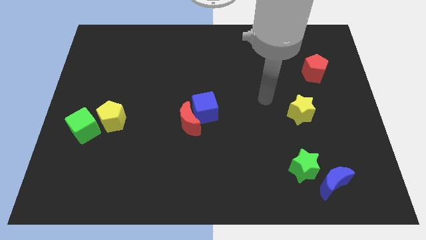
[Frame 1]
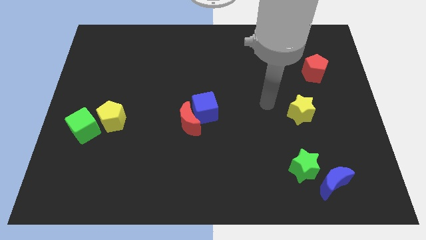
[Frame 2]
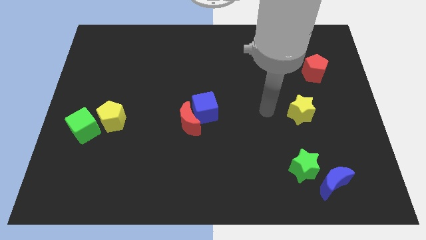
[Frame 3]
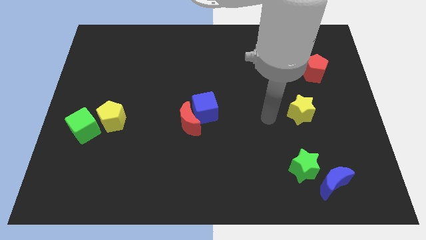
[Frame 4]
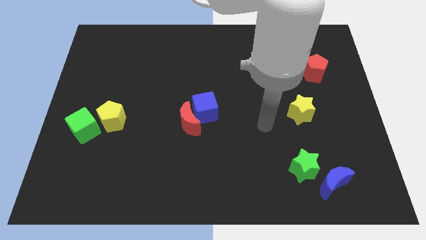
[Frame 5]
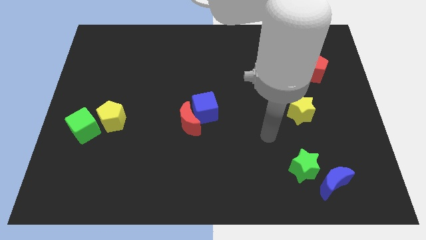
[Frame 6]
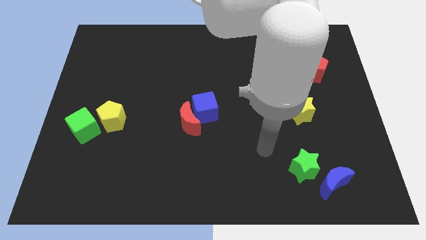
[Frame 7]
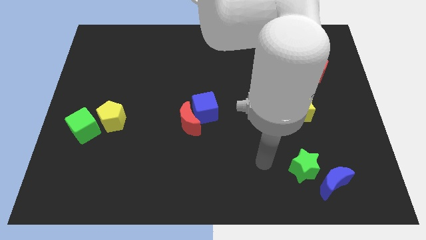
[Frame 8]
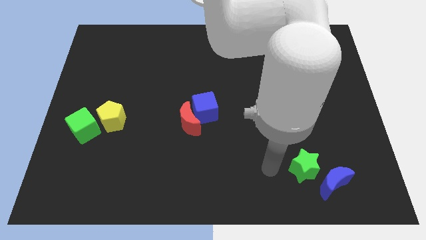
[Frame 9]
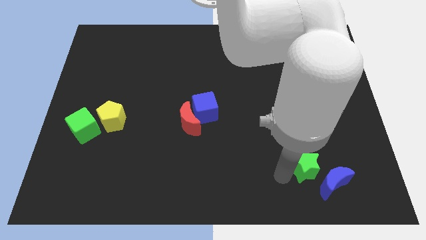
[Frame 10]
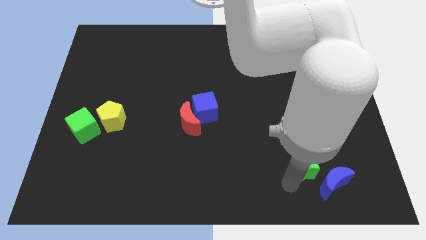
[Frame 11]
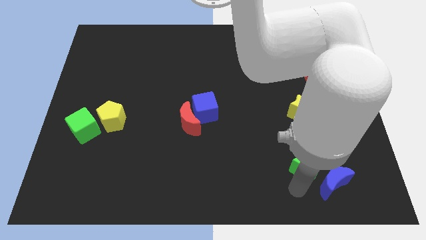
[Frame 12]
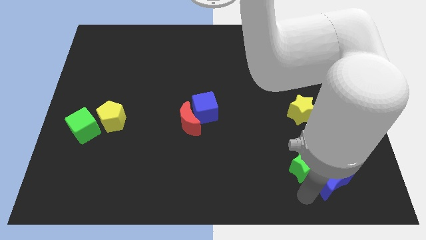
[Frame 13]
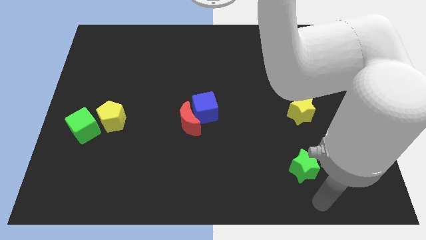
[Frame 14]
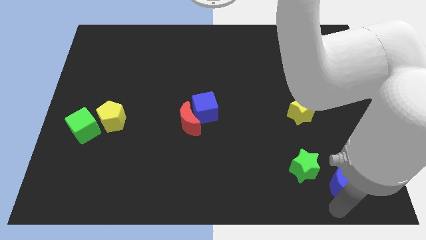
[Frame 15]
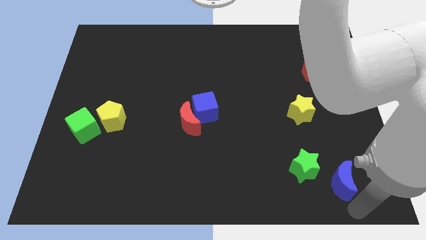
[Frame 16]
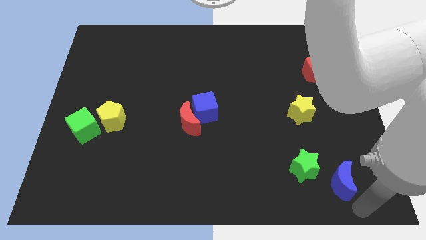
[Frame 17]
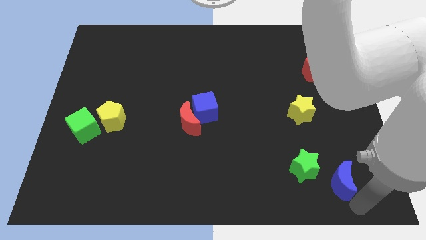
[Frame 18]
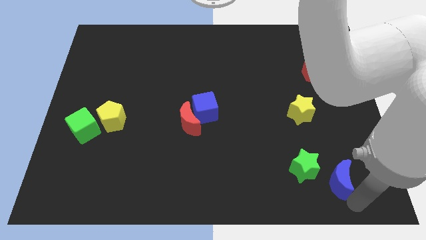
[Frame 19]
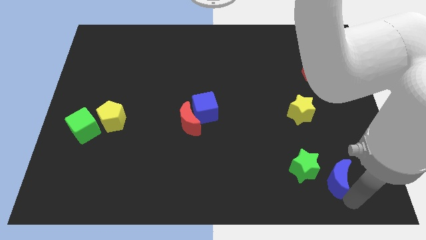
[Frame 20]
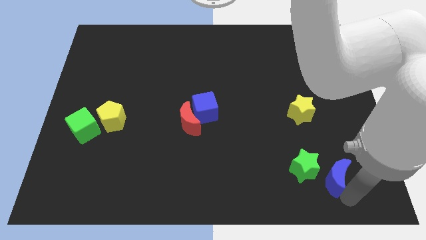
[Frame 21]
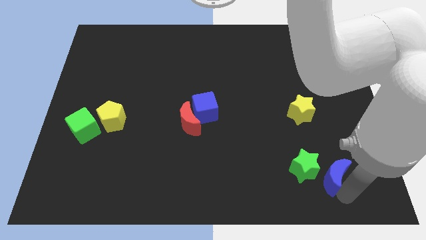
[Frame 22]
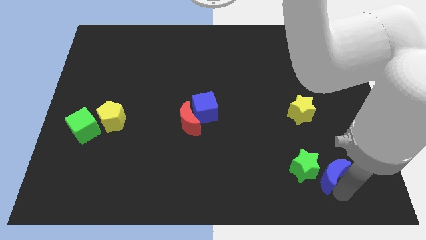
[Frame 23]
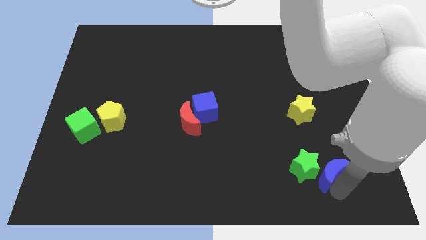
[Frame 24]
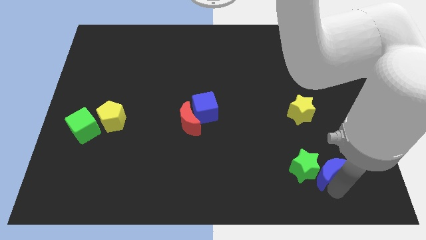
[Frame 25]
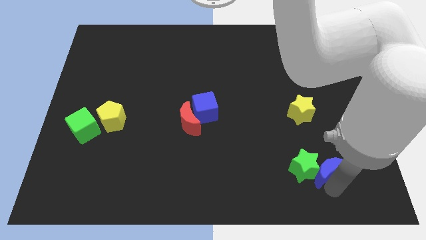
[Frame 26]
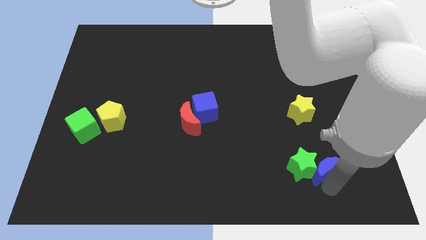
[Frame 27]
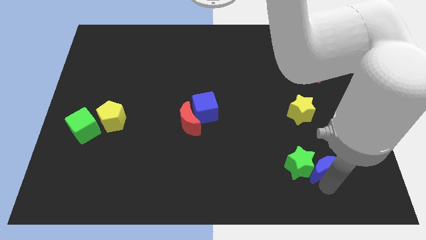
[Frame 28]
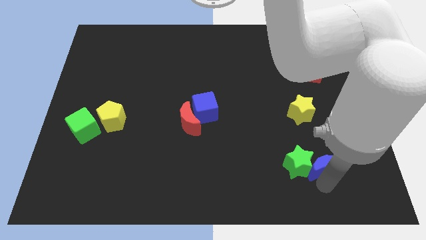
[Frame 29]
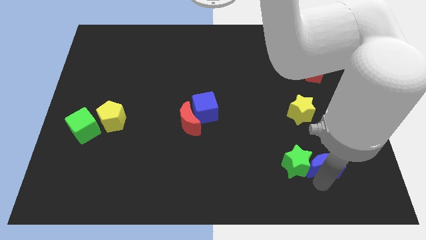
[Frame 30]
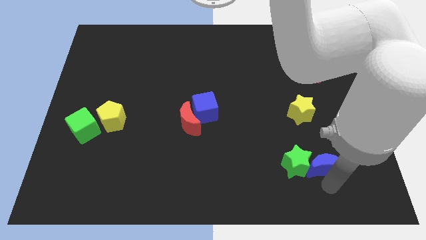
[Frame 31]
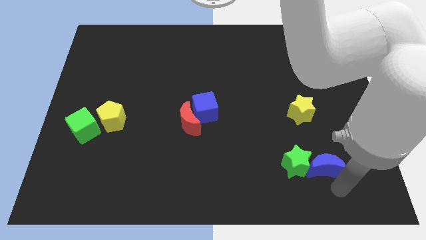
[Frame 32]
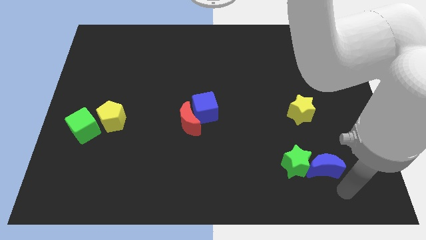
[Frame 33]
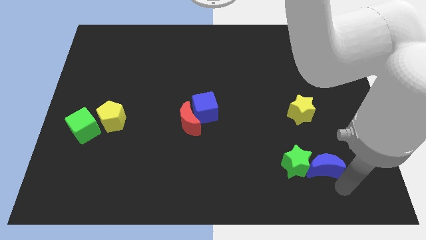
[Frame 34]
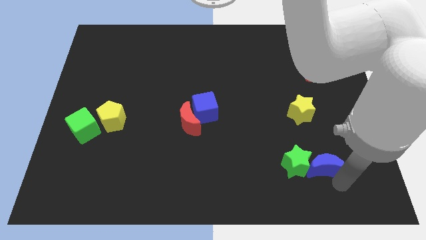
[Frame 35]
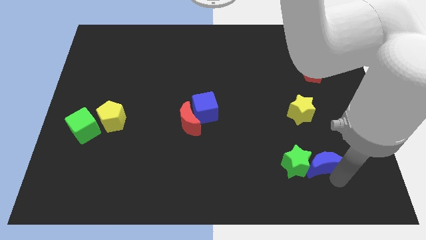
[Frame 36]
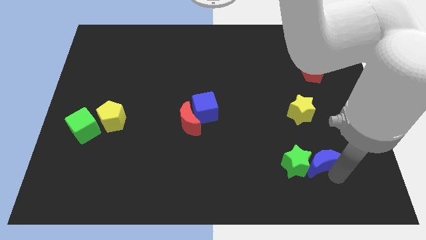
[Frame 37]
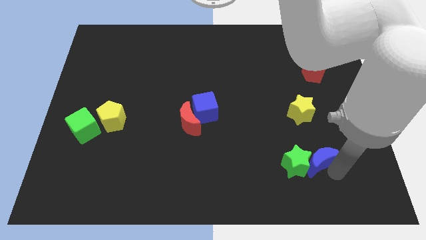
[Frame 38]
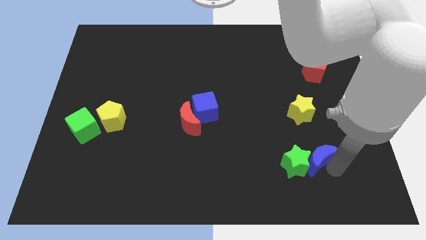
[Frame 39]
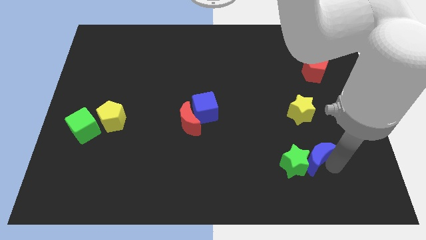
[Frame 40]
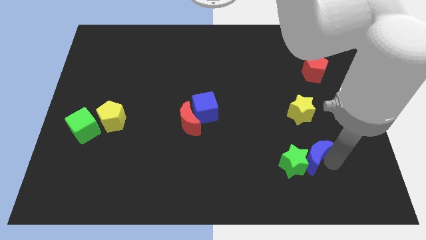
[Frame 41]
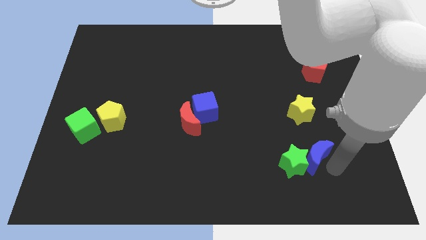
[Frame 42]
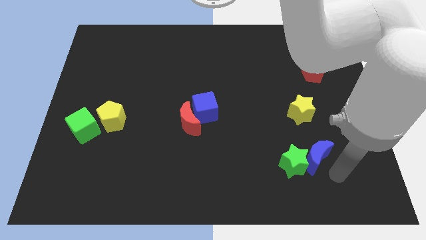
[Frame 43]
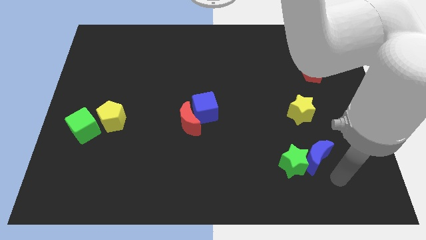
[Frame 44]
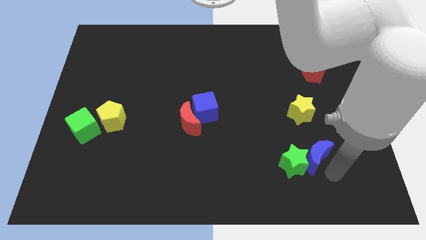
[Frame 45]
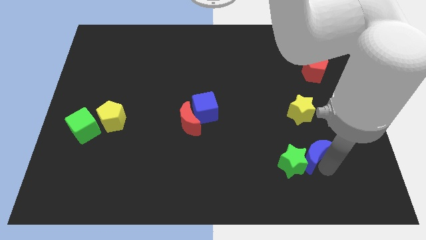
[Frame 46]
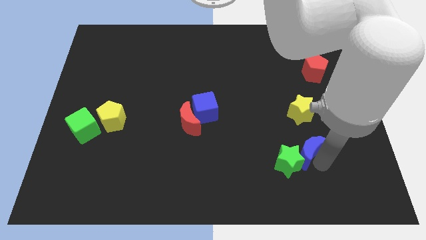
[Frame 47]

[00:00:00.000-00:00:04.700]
slightly slide the blue moon upwards and to the left

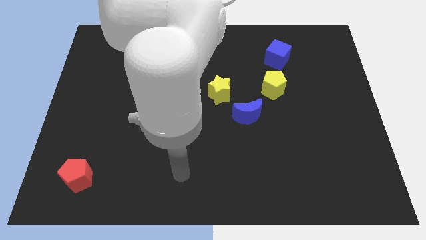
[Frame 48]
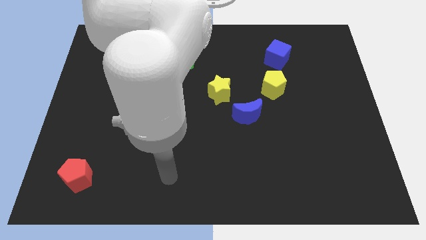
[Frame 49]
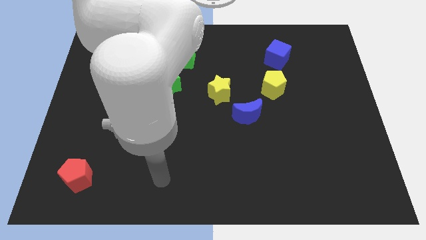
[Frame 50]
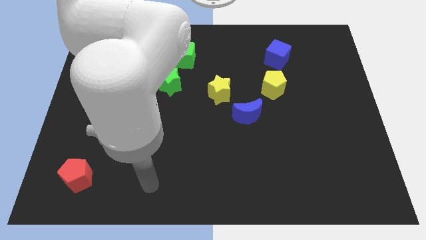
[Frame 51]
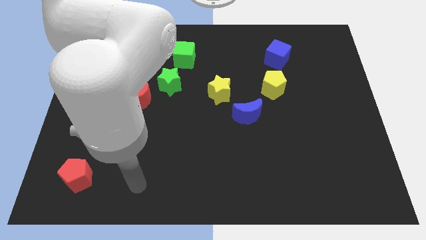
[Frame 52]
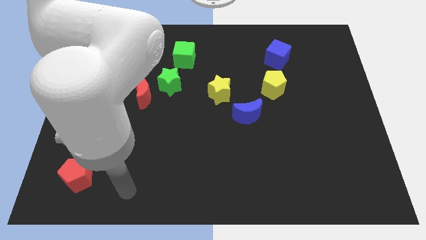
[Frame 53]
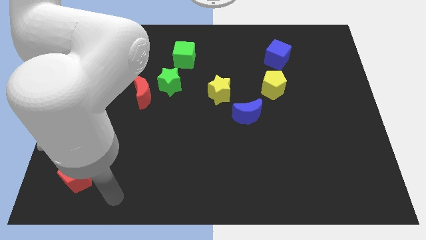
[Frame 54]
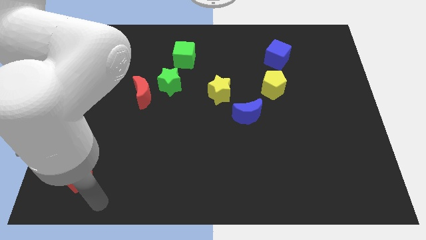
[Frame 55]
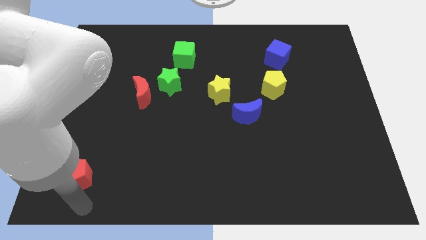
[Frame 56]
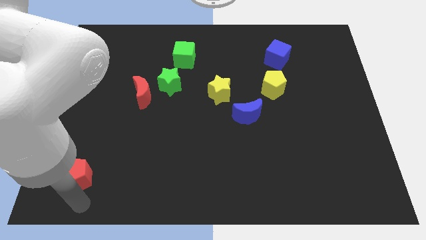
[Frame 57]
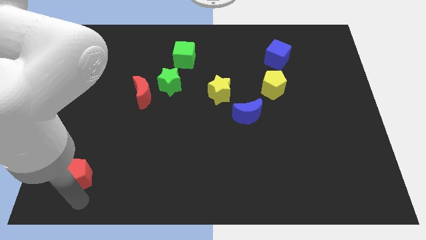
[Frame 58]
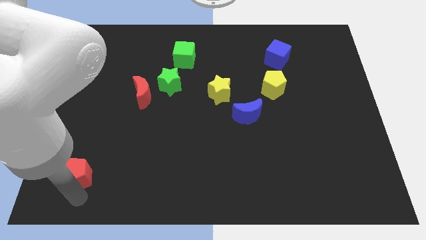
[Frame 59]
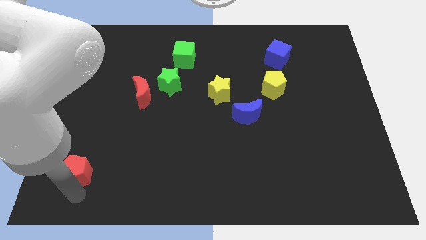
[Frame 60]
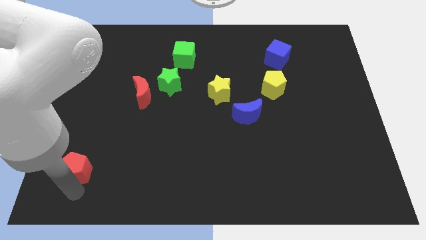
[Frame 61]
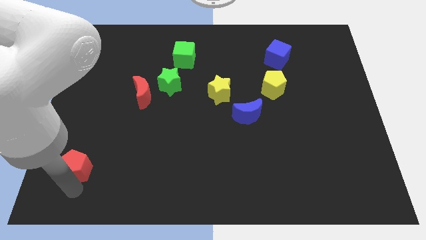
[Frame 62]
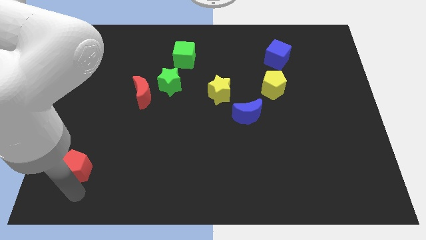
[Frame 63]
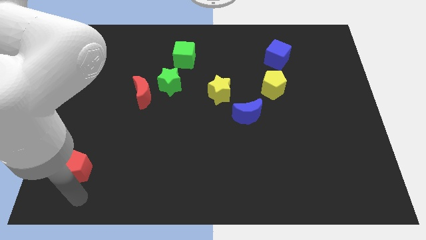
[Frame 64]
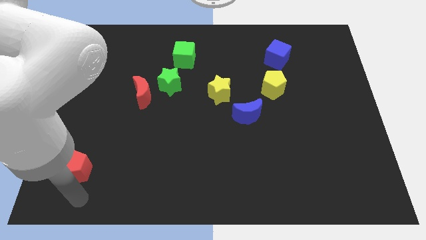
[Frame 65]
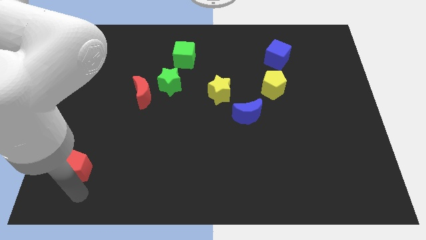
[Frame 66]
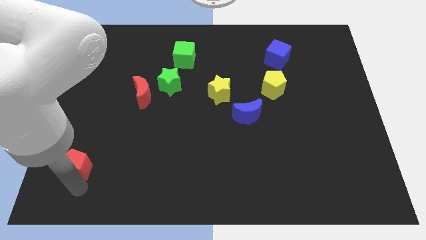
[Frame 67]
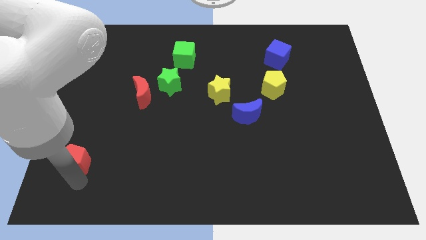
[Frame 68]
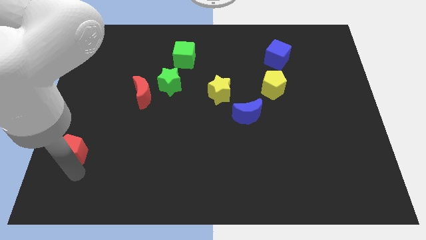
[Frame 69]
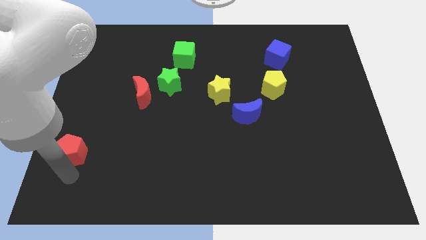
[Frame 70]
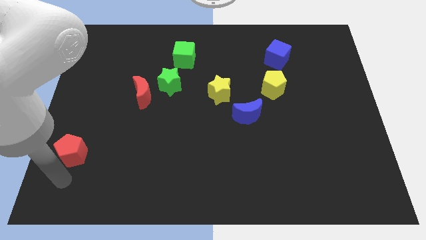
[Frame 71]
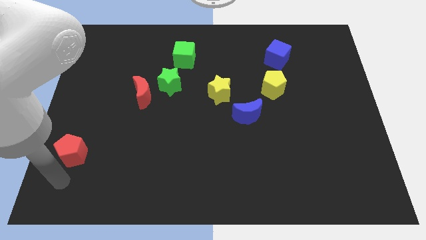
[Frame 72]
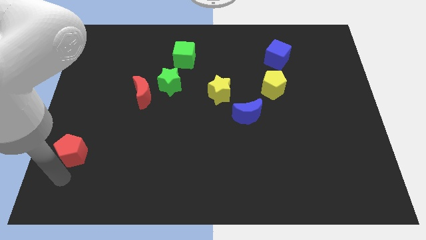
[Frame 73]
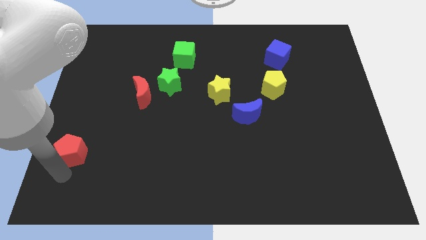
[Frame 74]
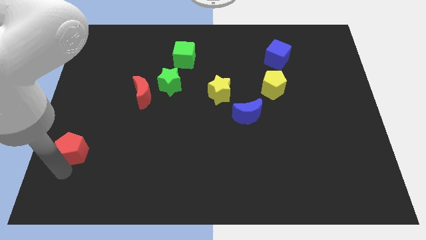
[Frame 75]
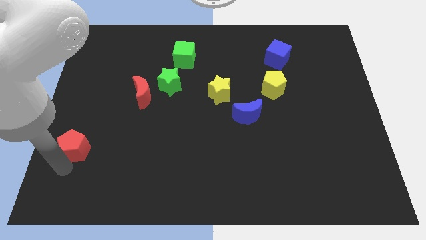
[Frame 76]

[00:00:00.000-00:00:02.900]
slightly slide the red pentagon up

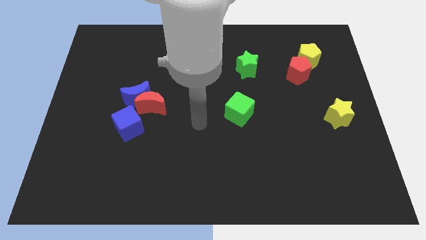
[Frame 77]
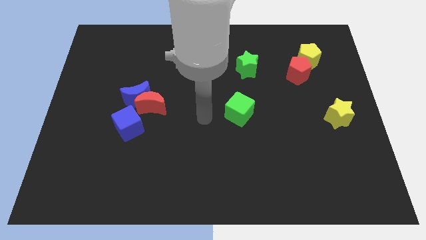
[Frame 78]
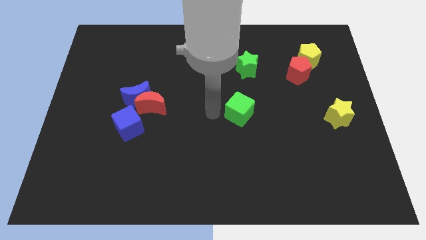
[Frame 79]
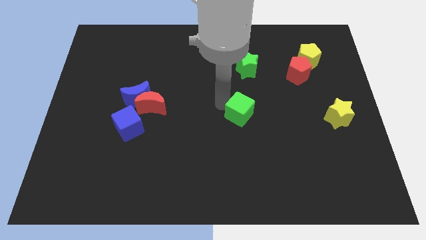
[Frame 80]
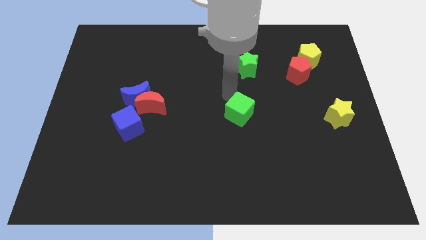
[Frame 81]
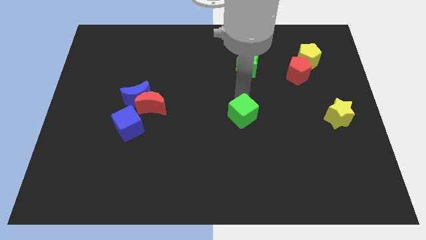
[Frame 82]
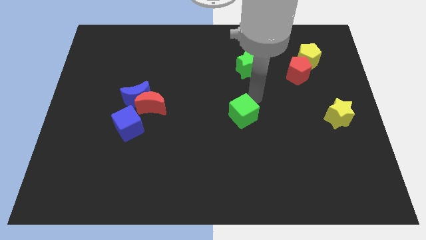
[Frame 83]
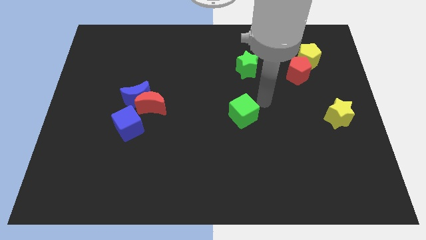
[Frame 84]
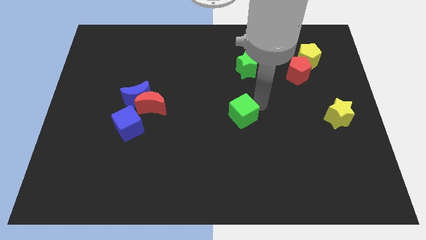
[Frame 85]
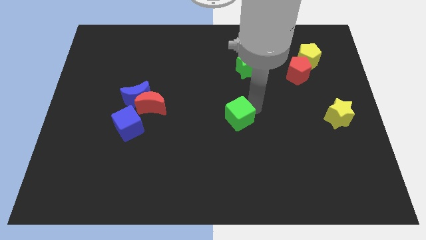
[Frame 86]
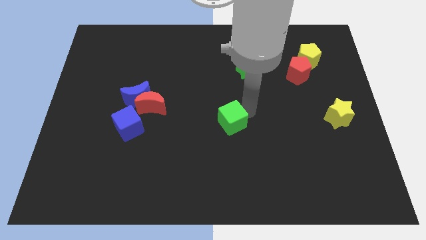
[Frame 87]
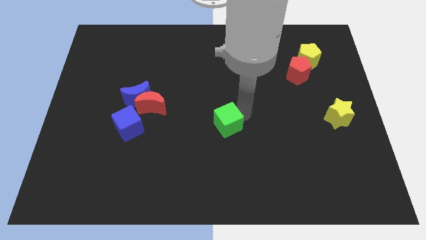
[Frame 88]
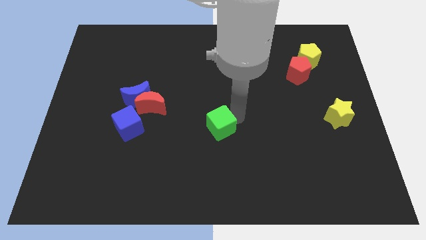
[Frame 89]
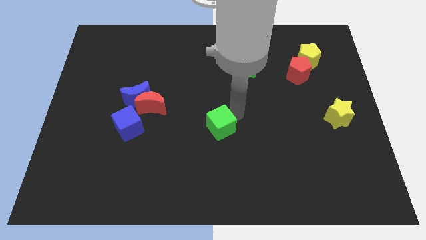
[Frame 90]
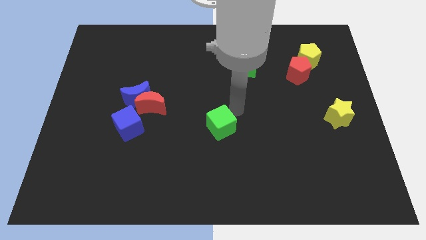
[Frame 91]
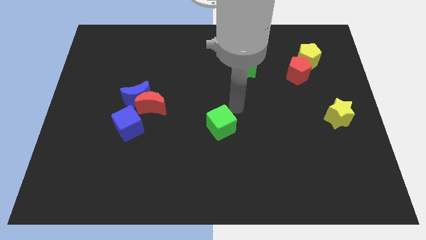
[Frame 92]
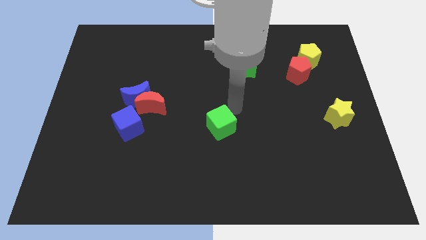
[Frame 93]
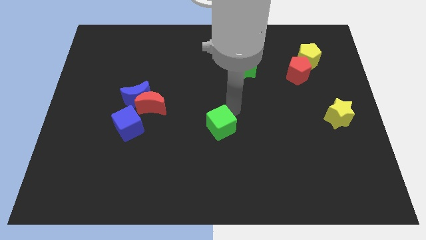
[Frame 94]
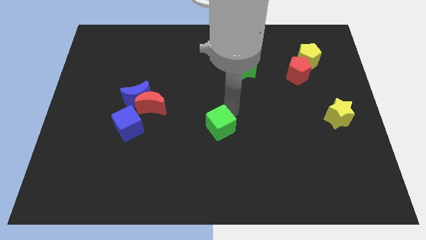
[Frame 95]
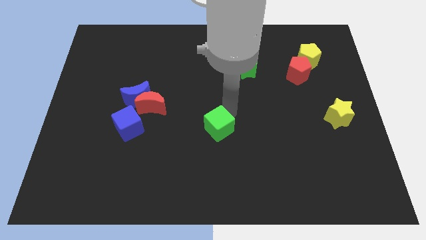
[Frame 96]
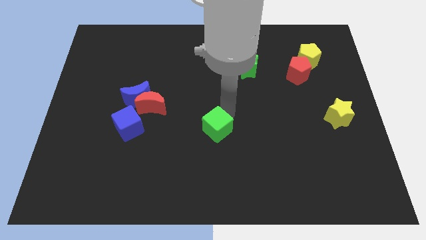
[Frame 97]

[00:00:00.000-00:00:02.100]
slightly slide the green cube downwards and then to the left
